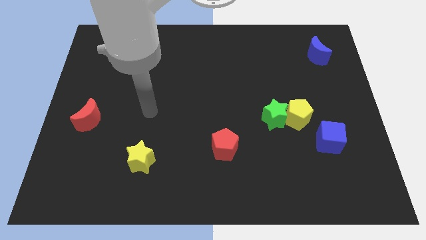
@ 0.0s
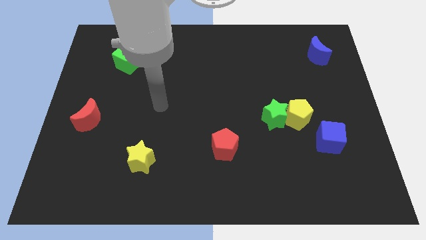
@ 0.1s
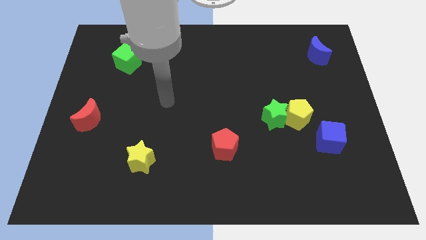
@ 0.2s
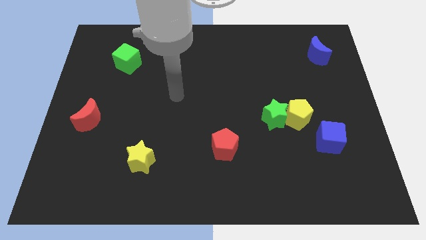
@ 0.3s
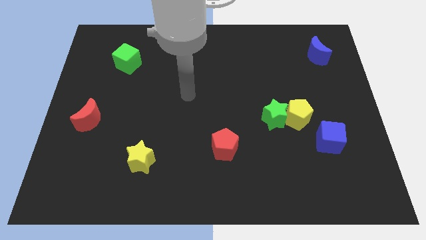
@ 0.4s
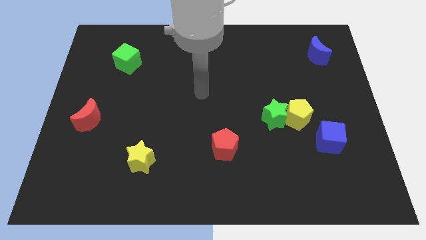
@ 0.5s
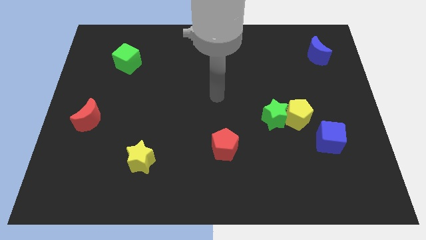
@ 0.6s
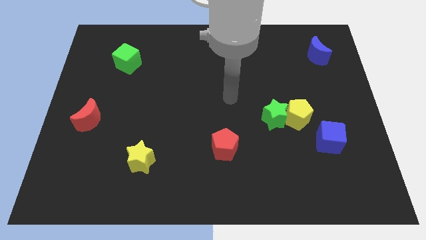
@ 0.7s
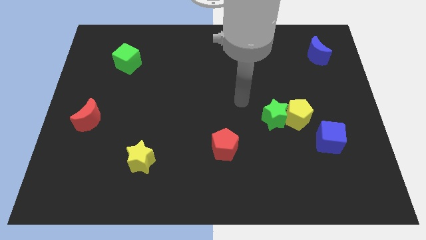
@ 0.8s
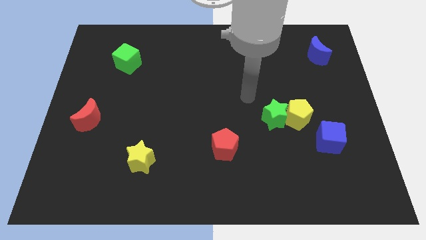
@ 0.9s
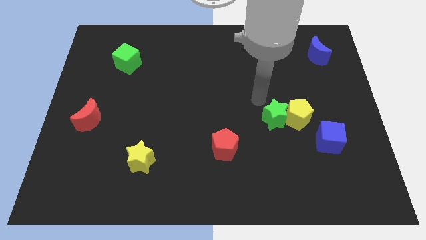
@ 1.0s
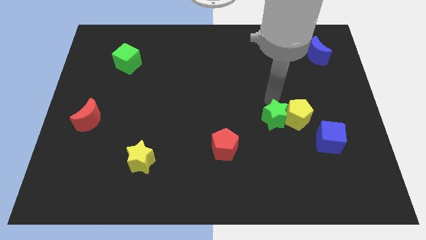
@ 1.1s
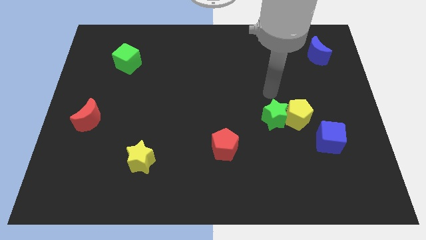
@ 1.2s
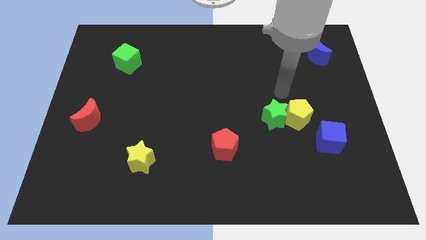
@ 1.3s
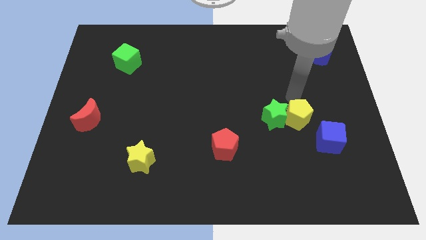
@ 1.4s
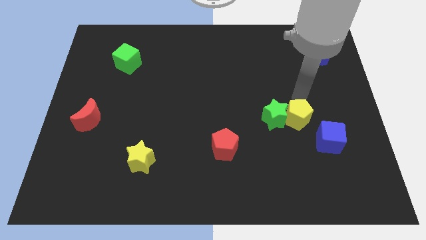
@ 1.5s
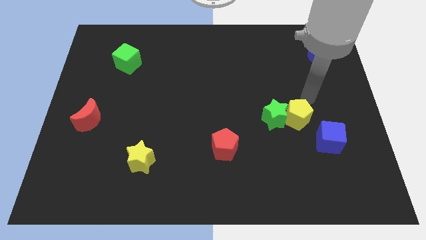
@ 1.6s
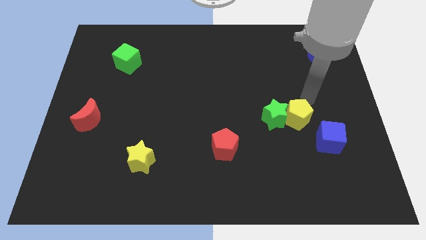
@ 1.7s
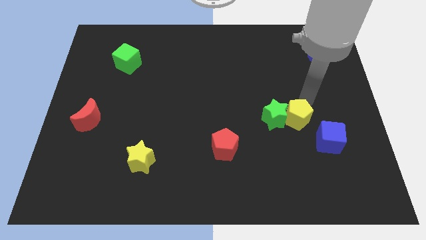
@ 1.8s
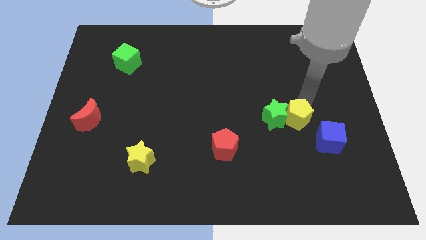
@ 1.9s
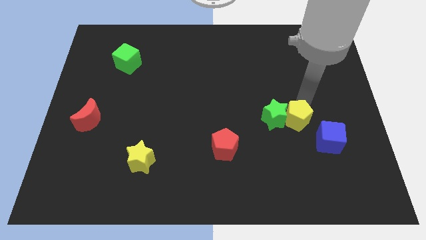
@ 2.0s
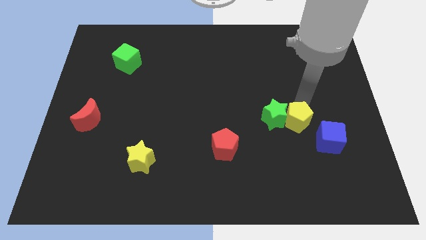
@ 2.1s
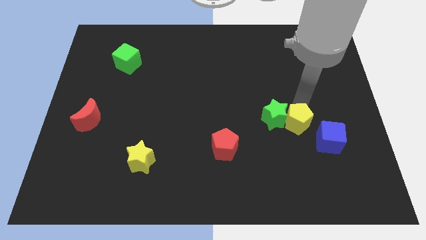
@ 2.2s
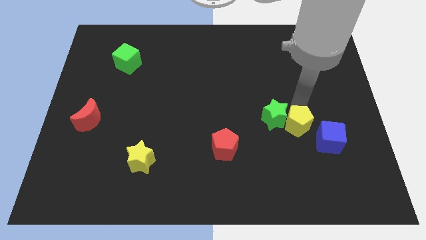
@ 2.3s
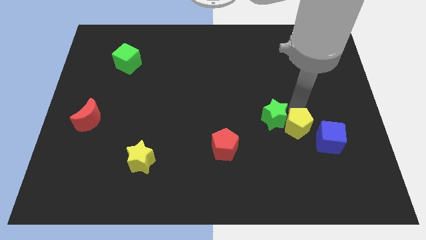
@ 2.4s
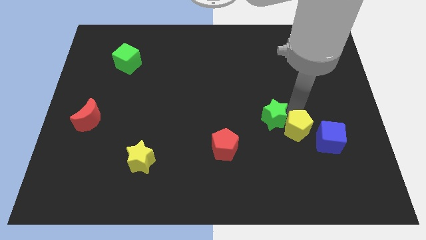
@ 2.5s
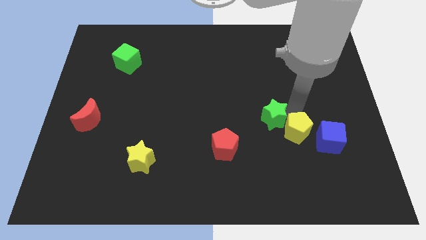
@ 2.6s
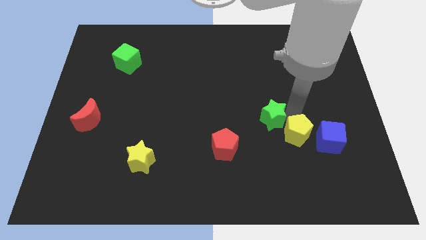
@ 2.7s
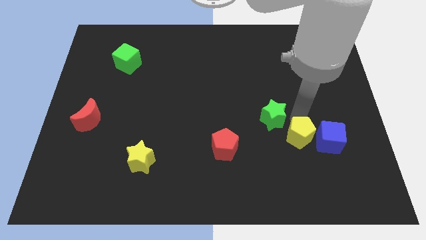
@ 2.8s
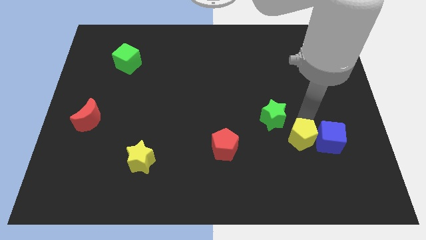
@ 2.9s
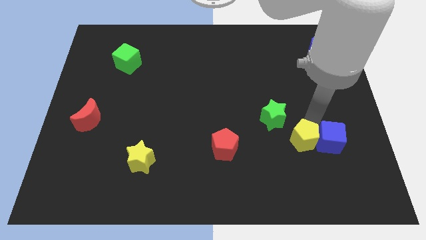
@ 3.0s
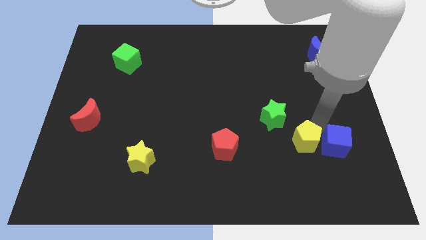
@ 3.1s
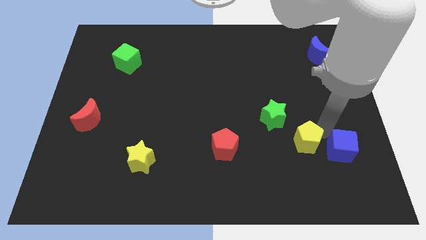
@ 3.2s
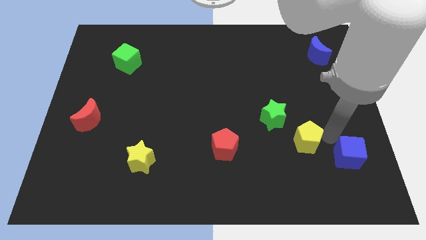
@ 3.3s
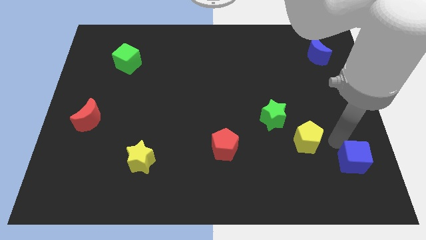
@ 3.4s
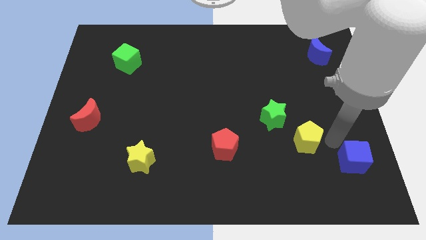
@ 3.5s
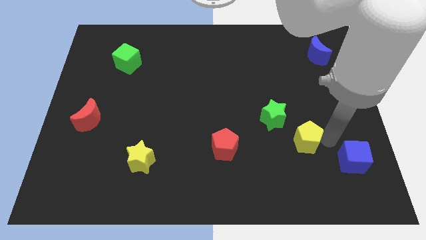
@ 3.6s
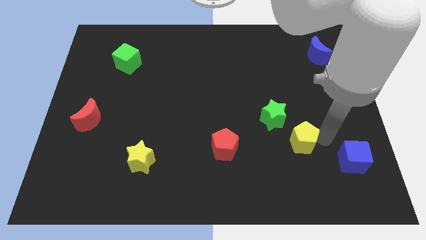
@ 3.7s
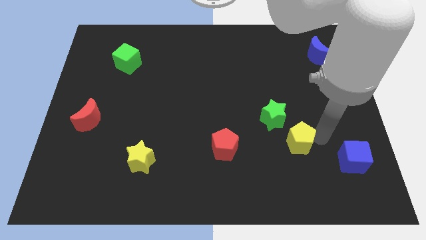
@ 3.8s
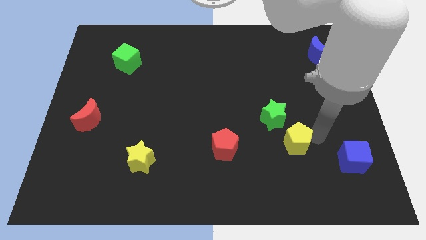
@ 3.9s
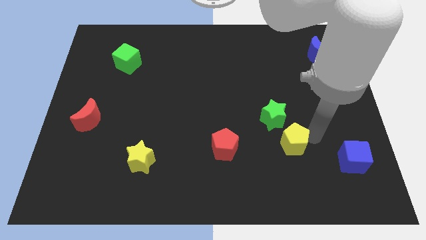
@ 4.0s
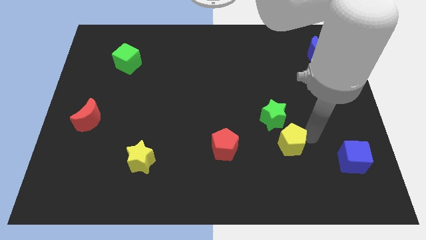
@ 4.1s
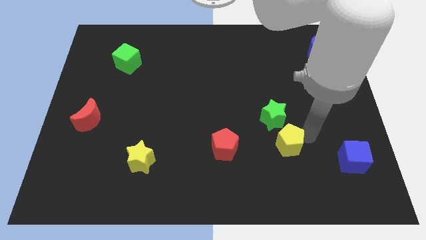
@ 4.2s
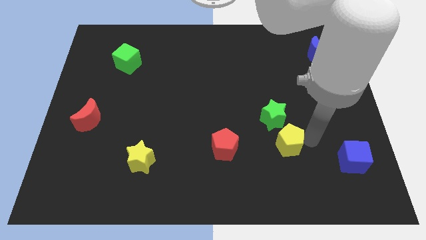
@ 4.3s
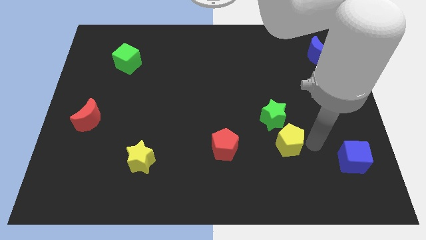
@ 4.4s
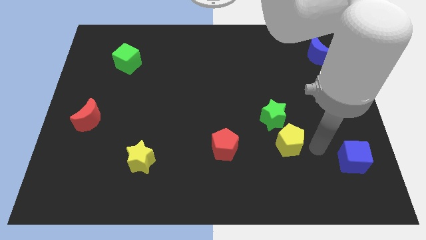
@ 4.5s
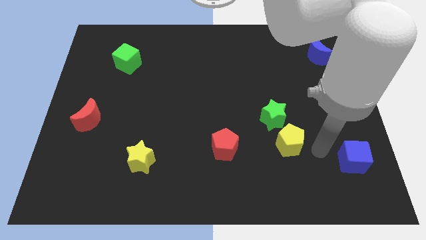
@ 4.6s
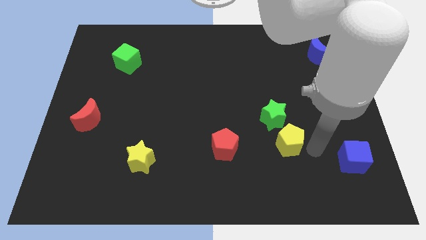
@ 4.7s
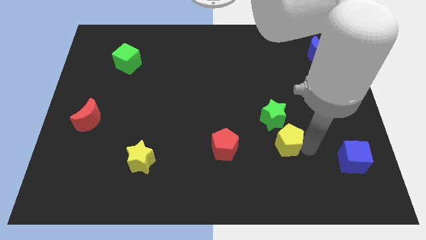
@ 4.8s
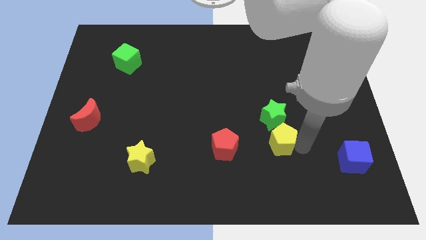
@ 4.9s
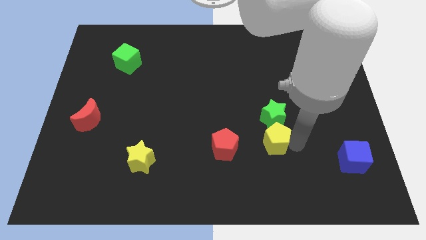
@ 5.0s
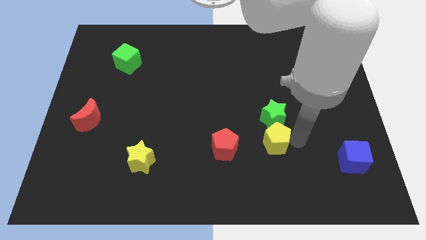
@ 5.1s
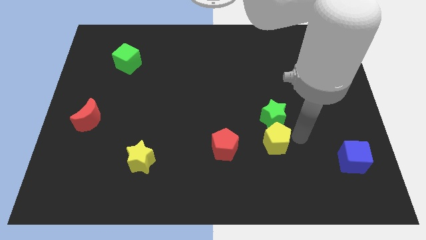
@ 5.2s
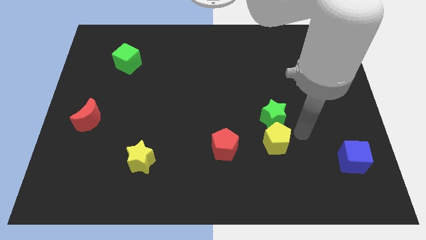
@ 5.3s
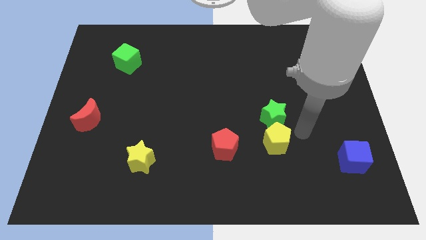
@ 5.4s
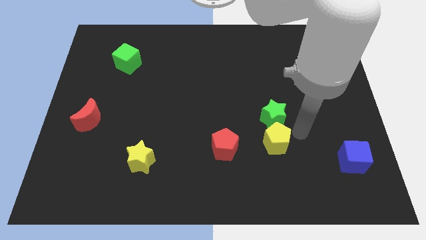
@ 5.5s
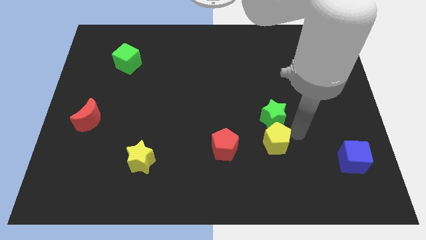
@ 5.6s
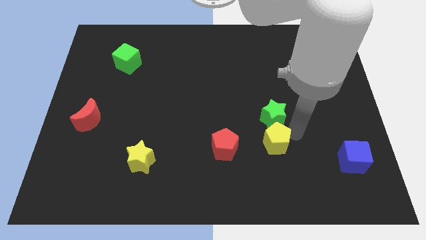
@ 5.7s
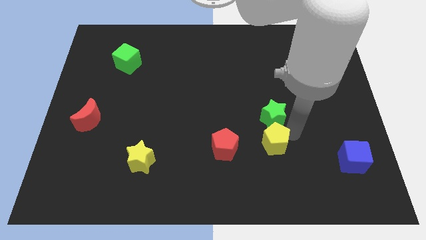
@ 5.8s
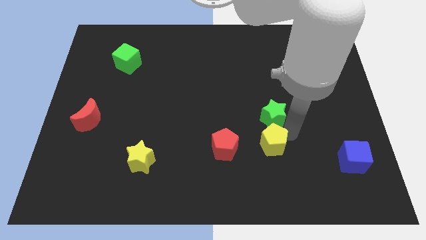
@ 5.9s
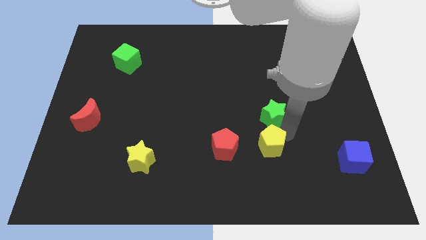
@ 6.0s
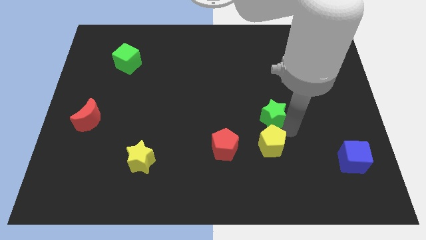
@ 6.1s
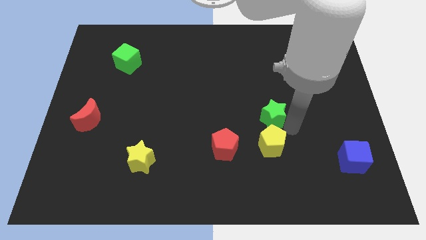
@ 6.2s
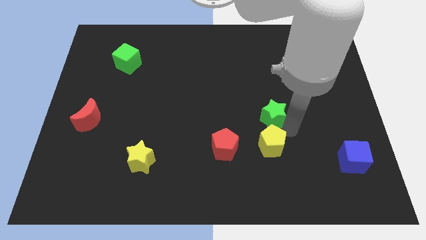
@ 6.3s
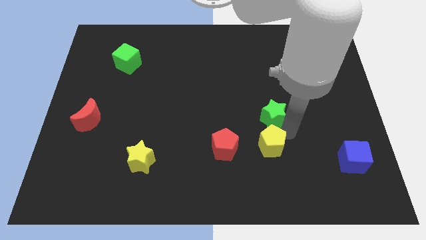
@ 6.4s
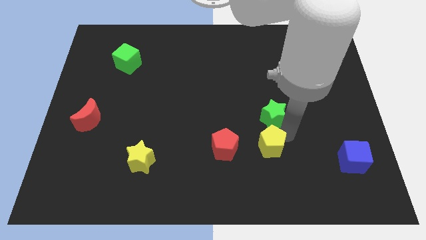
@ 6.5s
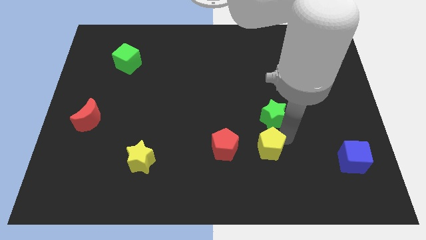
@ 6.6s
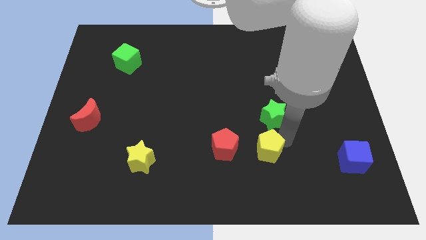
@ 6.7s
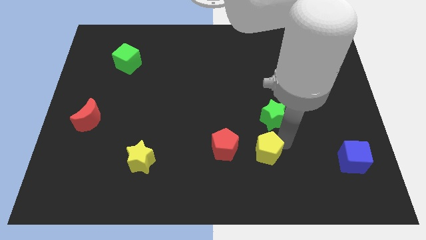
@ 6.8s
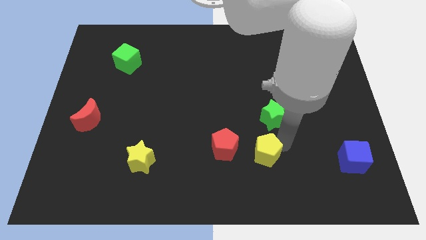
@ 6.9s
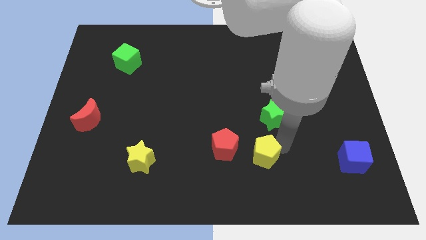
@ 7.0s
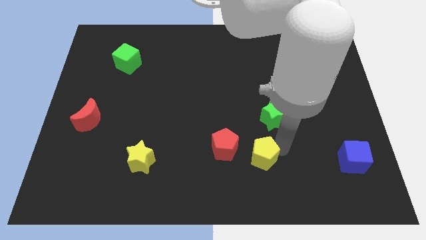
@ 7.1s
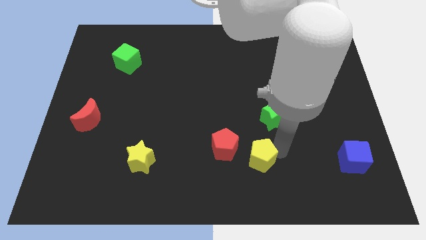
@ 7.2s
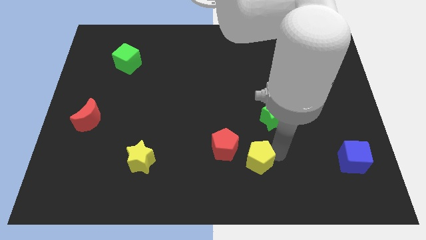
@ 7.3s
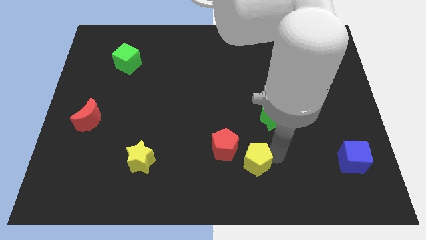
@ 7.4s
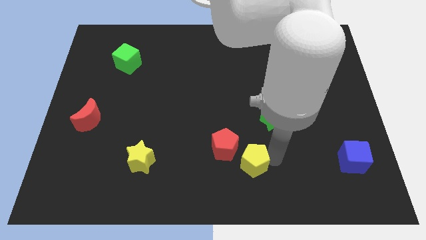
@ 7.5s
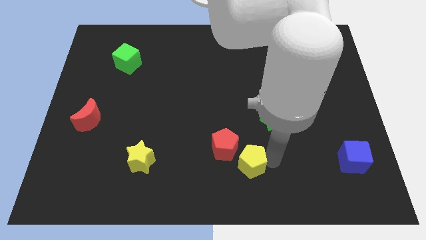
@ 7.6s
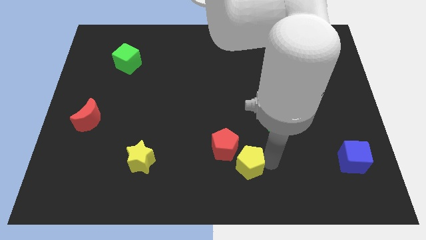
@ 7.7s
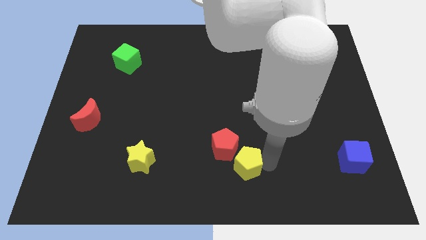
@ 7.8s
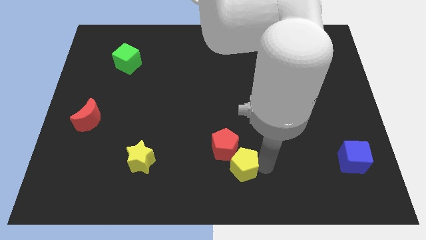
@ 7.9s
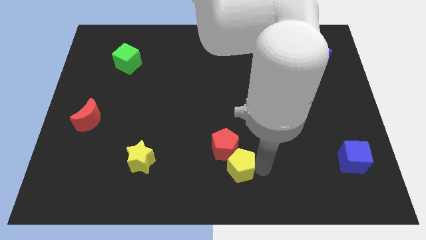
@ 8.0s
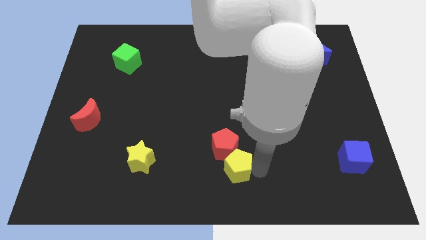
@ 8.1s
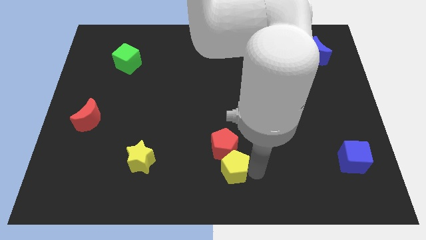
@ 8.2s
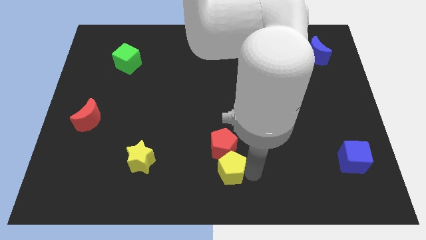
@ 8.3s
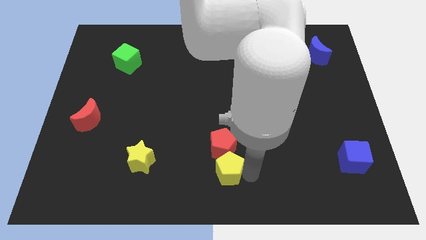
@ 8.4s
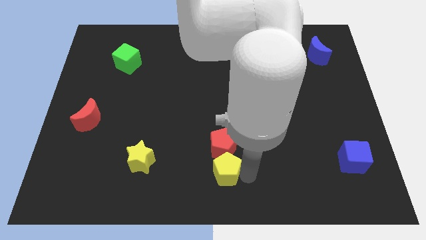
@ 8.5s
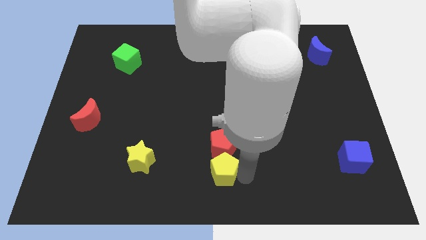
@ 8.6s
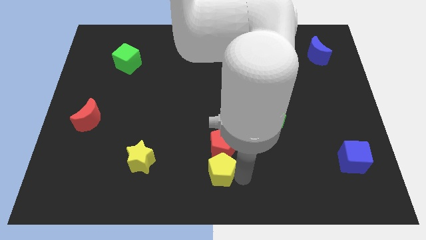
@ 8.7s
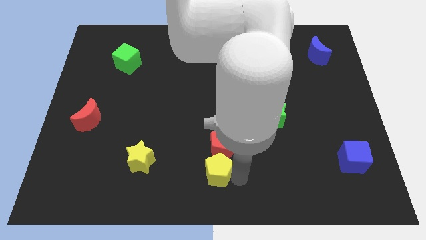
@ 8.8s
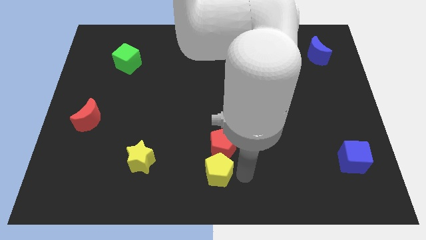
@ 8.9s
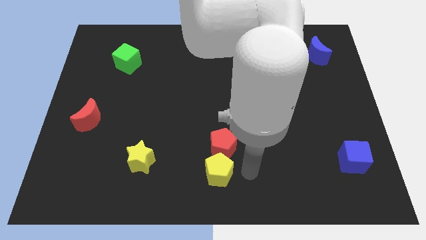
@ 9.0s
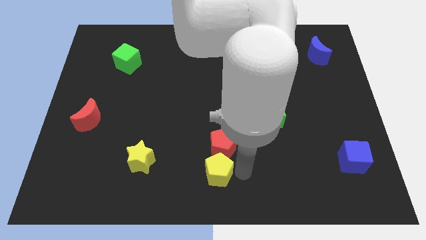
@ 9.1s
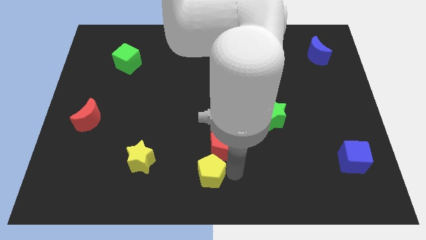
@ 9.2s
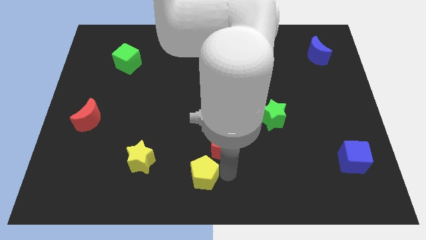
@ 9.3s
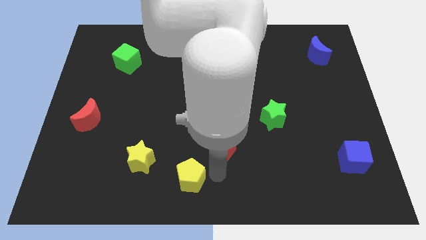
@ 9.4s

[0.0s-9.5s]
put the yellow pentagon to the bottom right side of the yellow star
